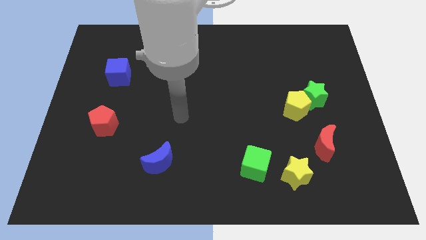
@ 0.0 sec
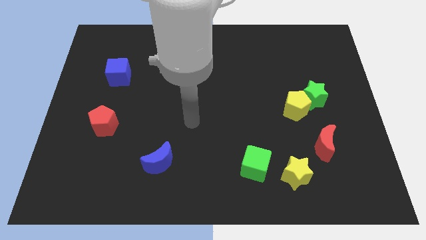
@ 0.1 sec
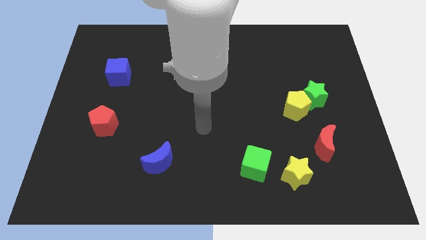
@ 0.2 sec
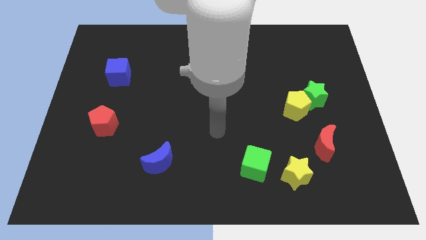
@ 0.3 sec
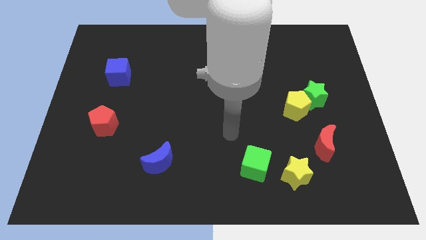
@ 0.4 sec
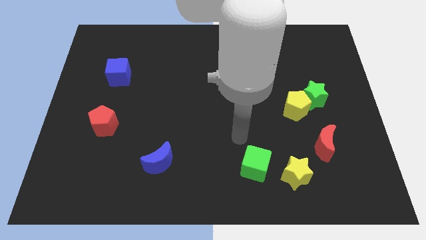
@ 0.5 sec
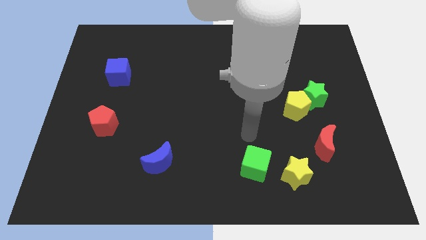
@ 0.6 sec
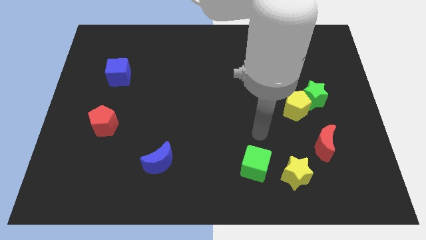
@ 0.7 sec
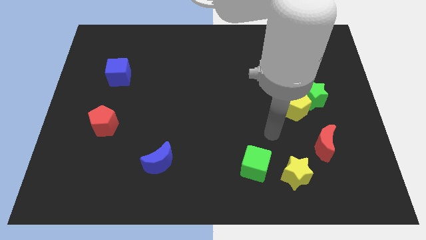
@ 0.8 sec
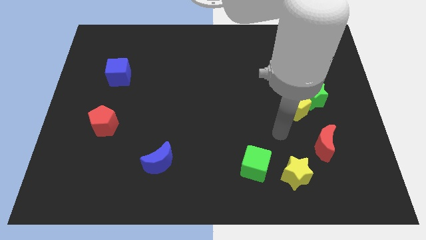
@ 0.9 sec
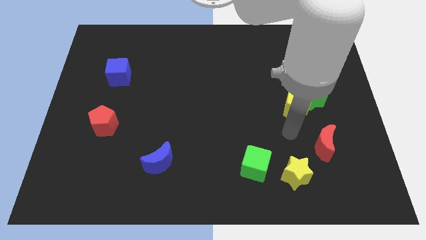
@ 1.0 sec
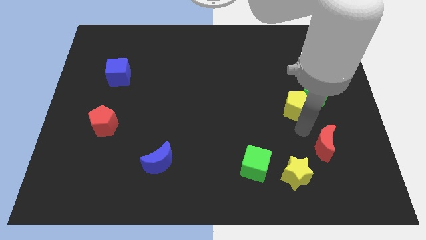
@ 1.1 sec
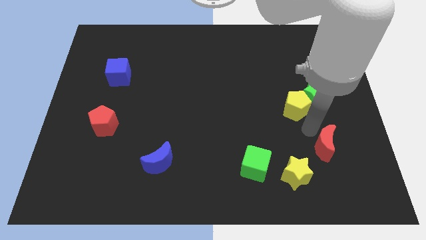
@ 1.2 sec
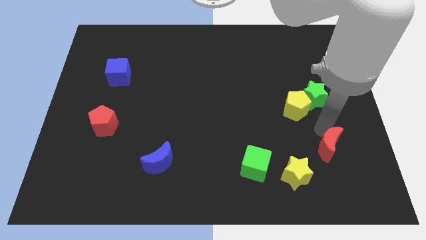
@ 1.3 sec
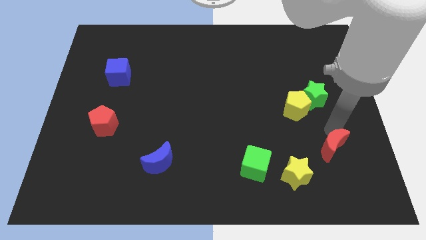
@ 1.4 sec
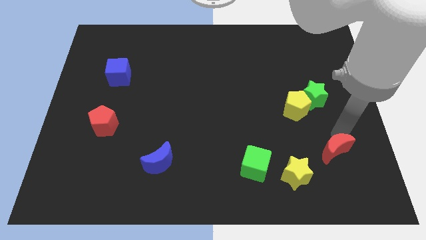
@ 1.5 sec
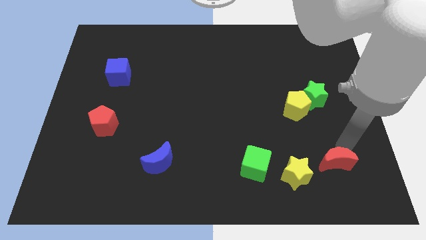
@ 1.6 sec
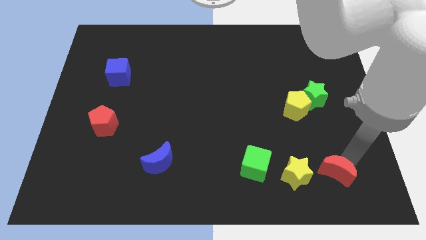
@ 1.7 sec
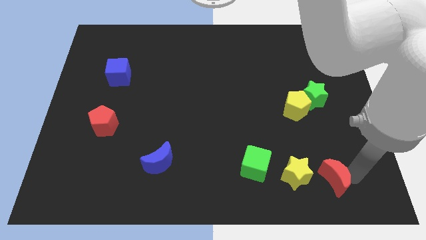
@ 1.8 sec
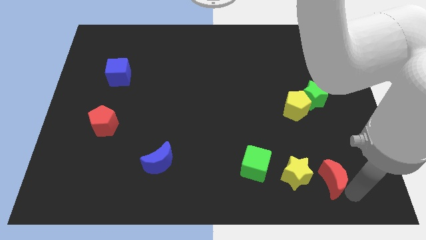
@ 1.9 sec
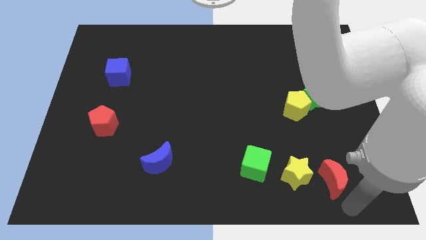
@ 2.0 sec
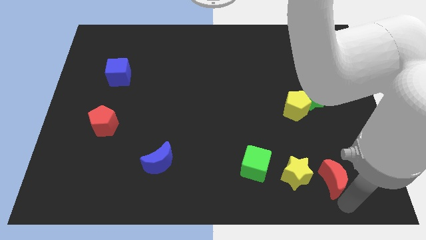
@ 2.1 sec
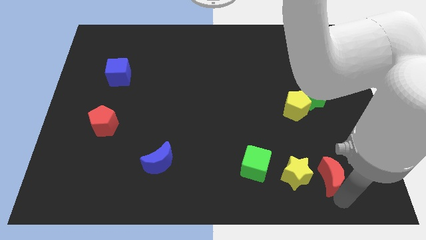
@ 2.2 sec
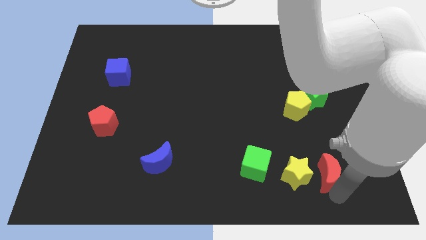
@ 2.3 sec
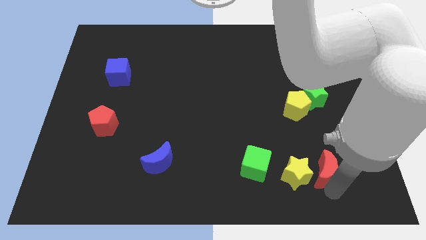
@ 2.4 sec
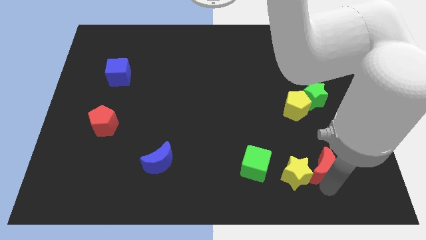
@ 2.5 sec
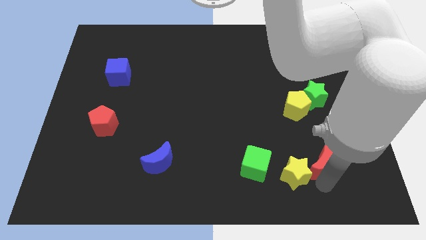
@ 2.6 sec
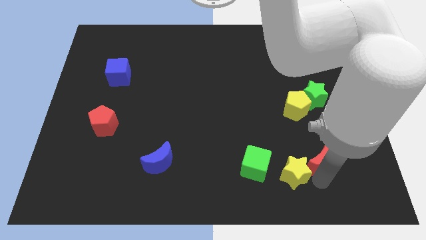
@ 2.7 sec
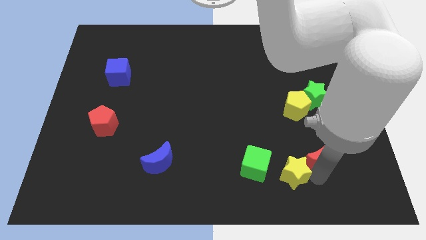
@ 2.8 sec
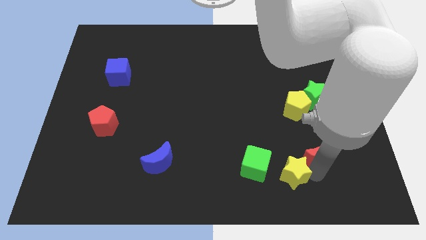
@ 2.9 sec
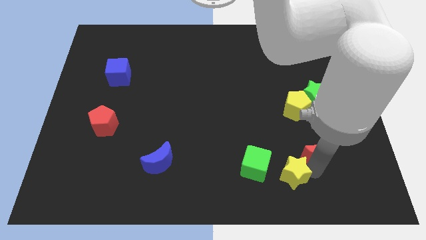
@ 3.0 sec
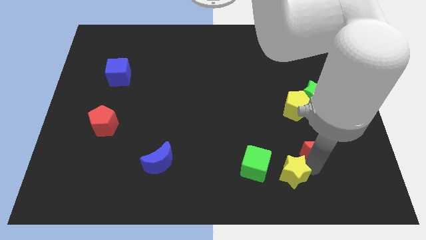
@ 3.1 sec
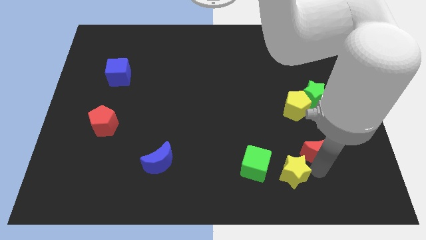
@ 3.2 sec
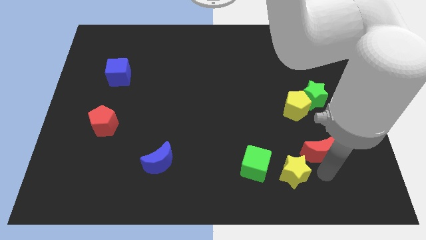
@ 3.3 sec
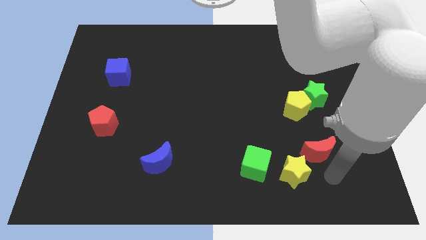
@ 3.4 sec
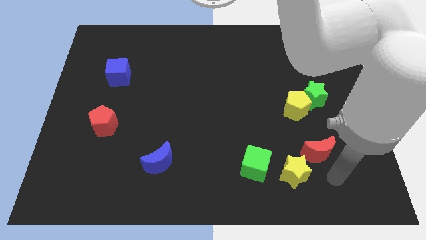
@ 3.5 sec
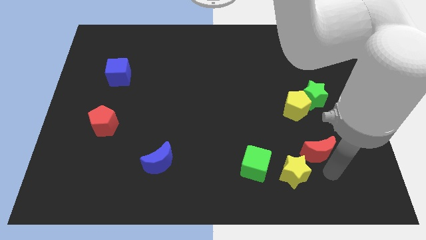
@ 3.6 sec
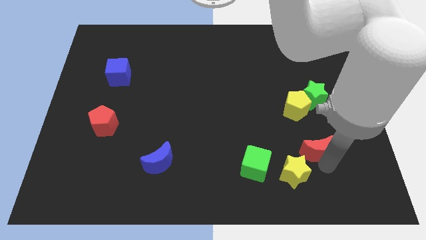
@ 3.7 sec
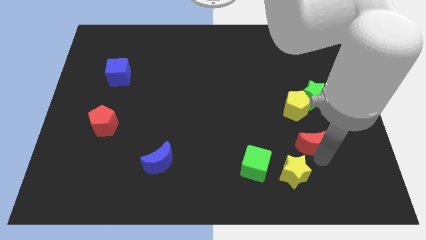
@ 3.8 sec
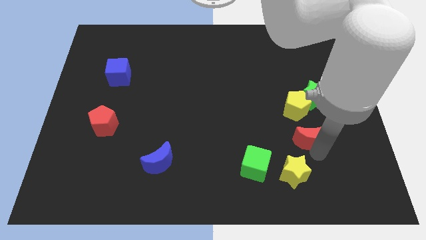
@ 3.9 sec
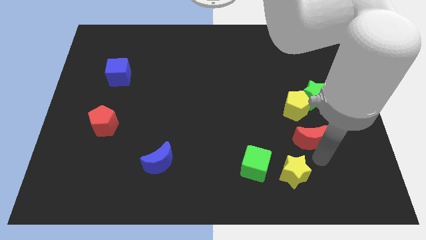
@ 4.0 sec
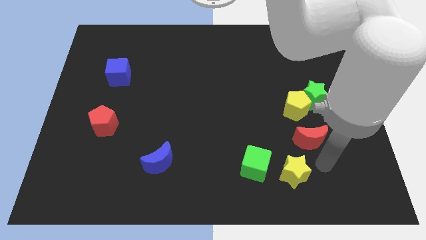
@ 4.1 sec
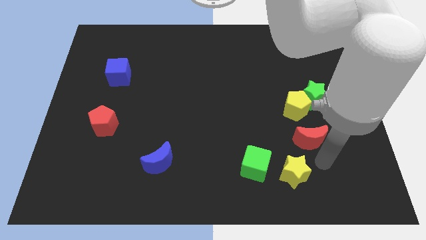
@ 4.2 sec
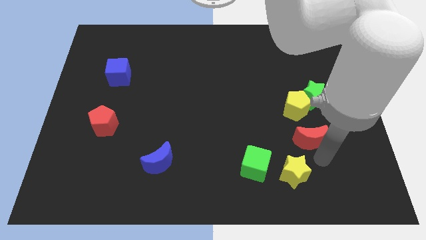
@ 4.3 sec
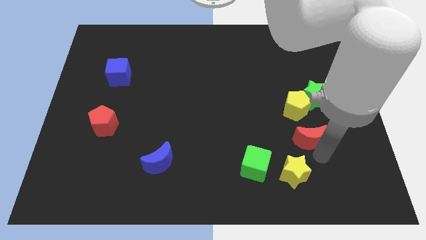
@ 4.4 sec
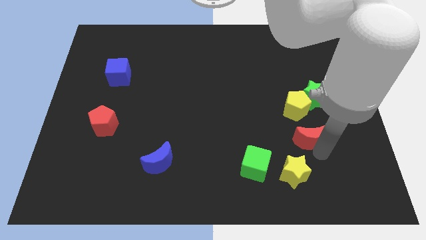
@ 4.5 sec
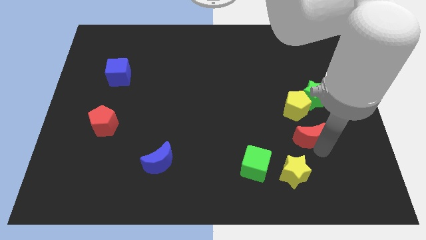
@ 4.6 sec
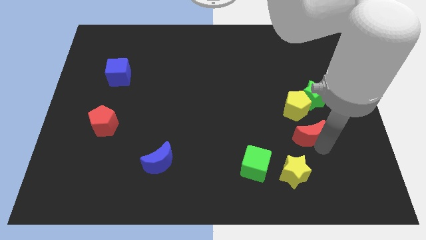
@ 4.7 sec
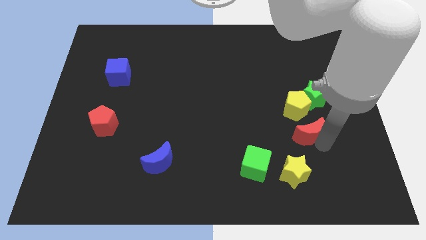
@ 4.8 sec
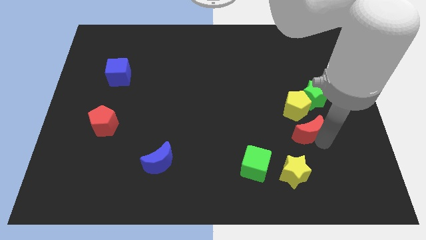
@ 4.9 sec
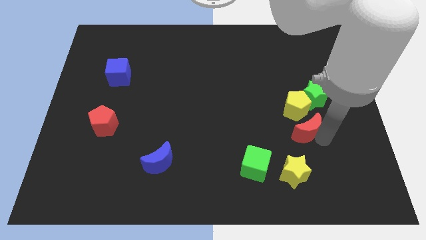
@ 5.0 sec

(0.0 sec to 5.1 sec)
slide the red moon to the bottom left of the green star

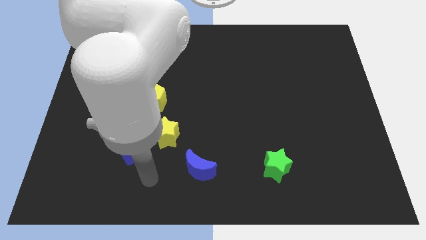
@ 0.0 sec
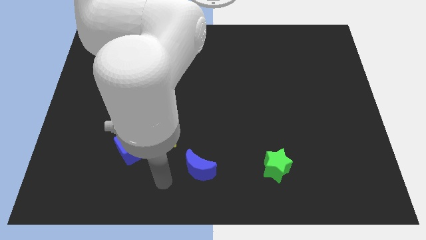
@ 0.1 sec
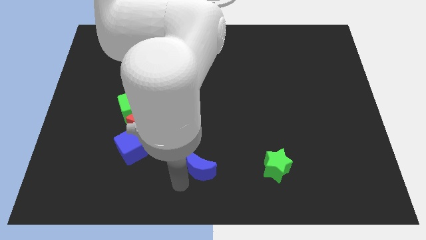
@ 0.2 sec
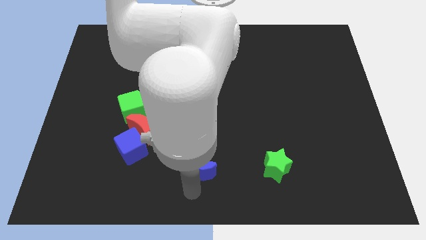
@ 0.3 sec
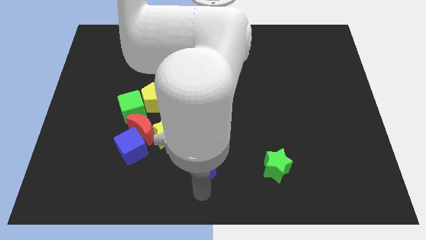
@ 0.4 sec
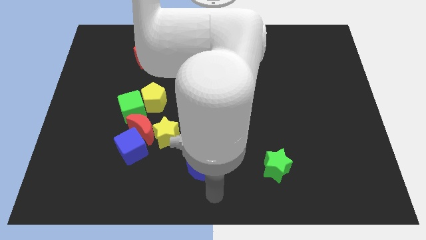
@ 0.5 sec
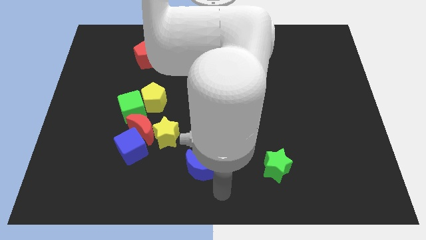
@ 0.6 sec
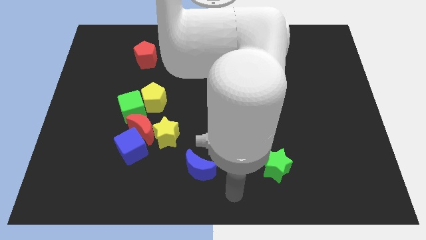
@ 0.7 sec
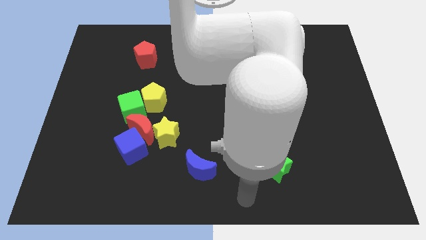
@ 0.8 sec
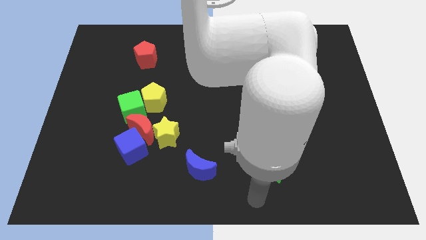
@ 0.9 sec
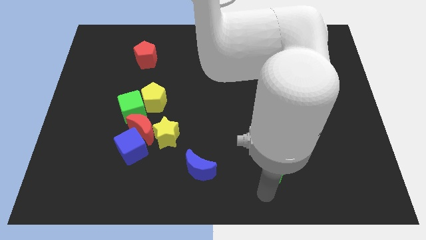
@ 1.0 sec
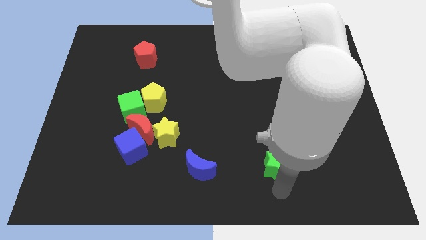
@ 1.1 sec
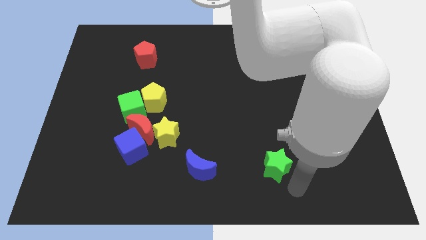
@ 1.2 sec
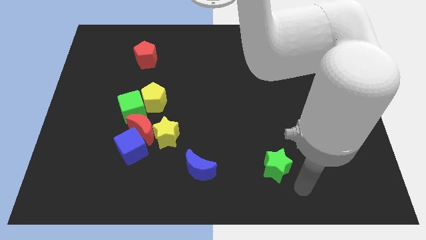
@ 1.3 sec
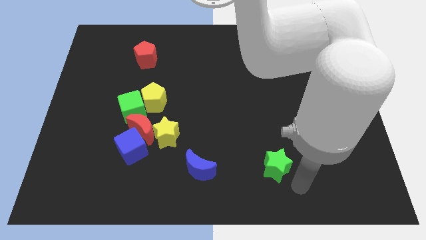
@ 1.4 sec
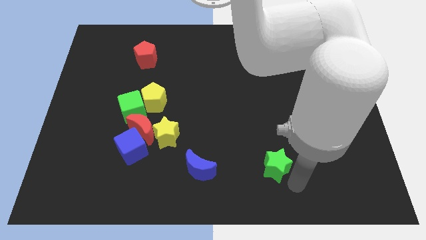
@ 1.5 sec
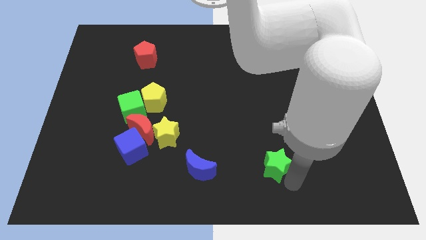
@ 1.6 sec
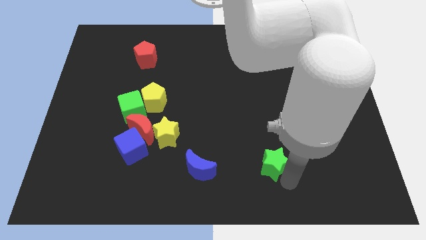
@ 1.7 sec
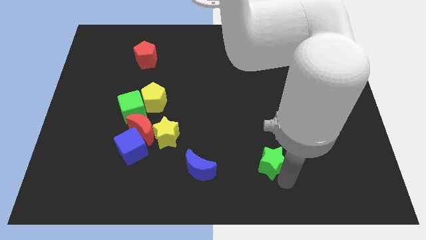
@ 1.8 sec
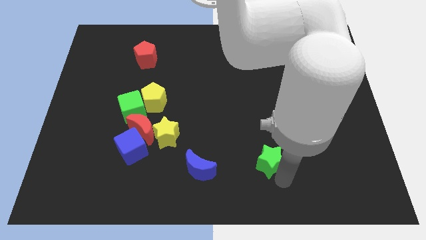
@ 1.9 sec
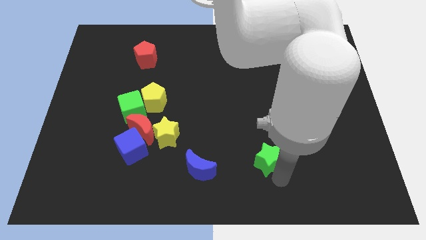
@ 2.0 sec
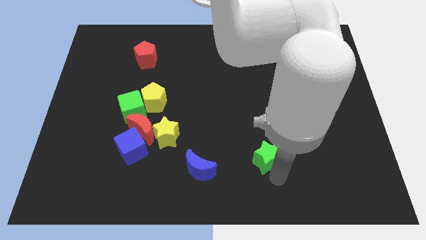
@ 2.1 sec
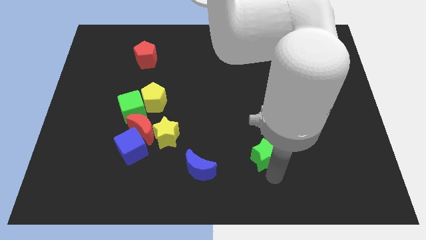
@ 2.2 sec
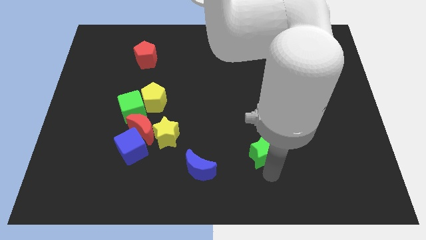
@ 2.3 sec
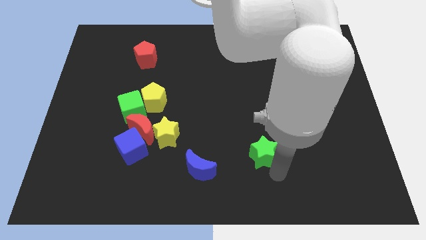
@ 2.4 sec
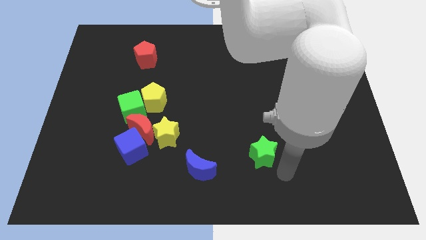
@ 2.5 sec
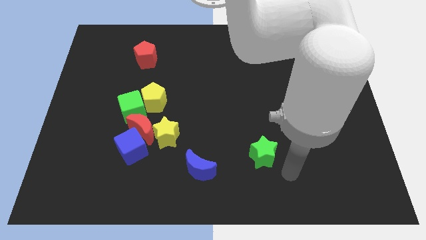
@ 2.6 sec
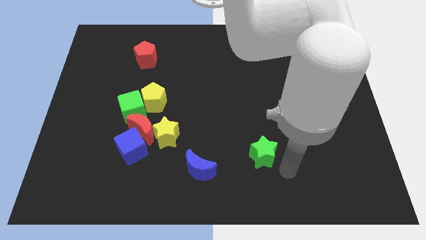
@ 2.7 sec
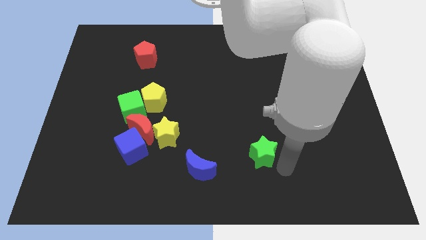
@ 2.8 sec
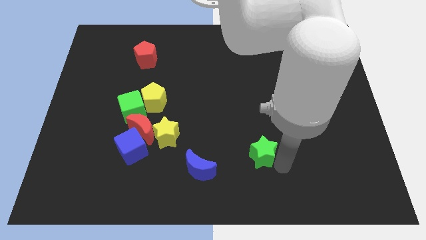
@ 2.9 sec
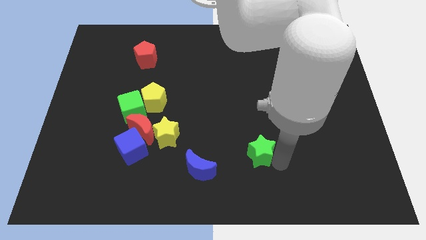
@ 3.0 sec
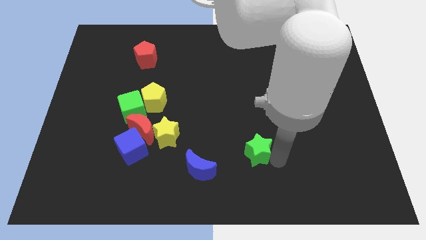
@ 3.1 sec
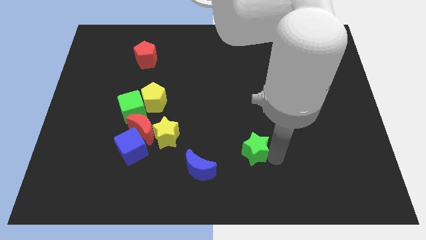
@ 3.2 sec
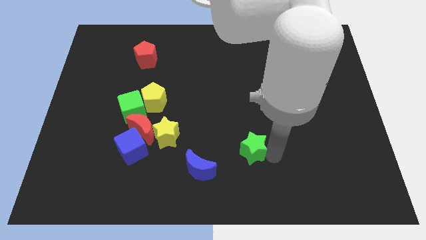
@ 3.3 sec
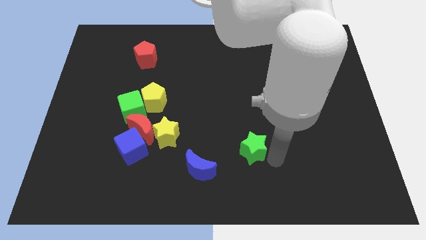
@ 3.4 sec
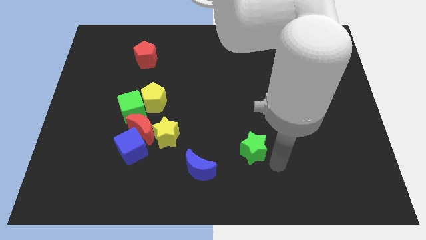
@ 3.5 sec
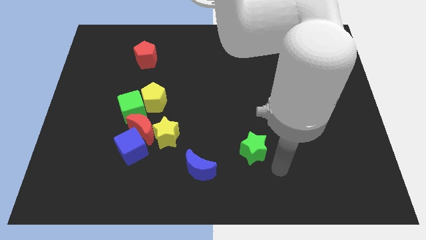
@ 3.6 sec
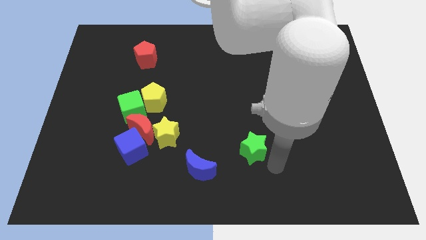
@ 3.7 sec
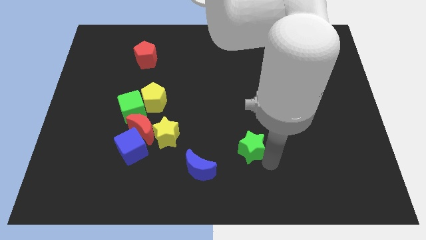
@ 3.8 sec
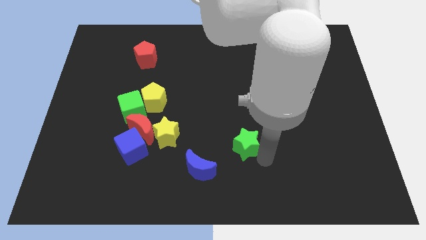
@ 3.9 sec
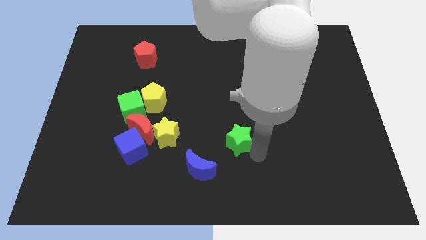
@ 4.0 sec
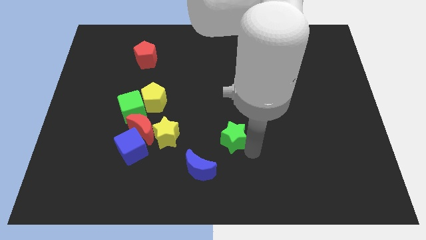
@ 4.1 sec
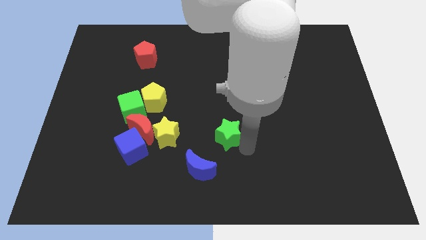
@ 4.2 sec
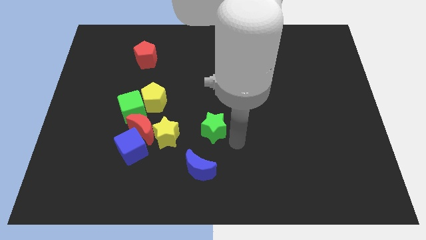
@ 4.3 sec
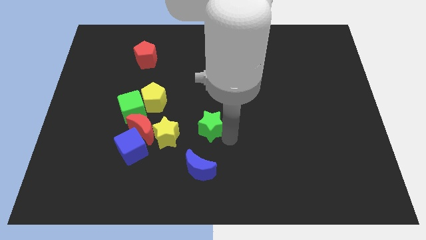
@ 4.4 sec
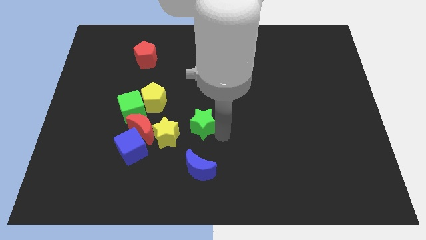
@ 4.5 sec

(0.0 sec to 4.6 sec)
push the green star diagonally up and to the right of the yellow star
